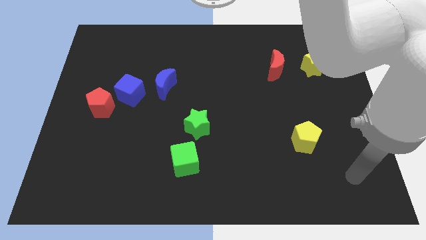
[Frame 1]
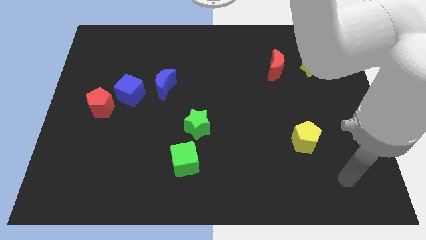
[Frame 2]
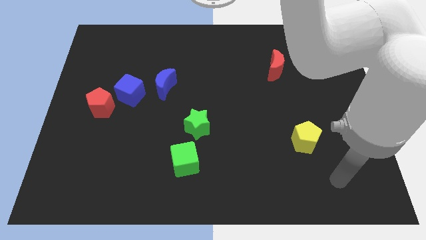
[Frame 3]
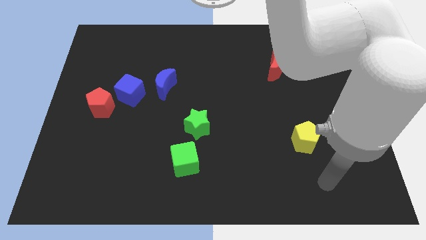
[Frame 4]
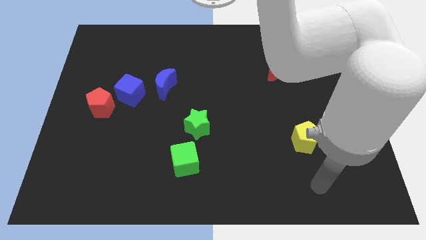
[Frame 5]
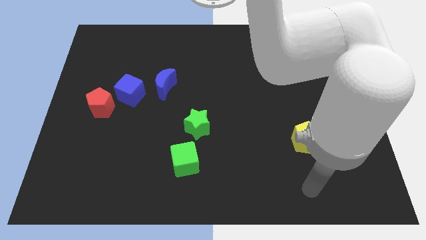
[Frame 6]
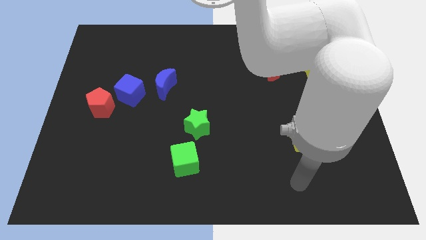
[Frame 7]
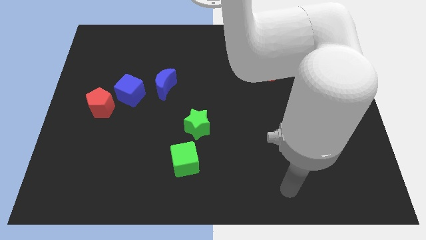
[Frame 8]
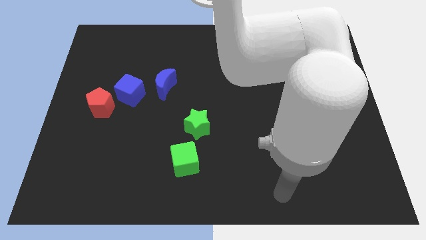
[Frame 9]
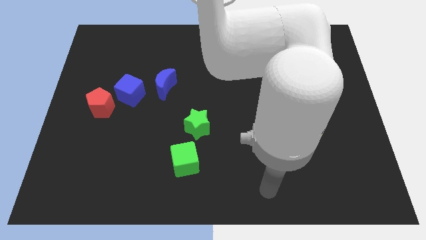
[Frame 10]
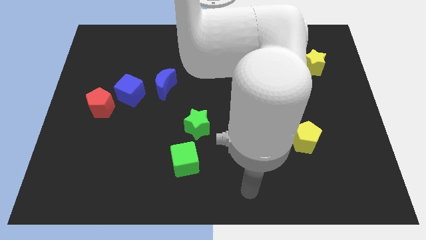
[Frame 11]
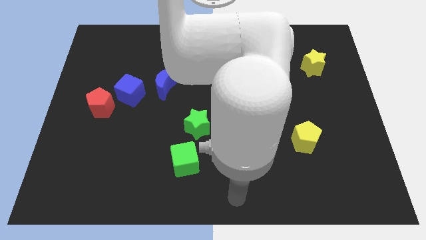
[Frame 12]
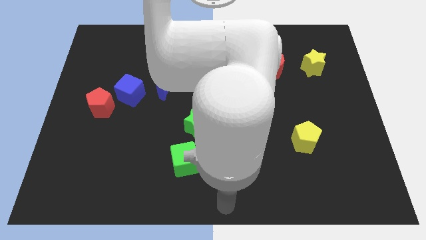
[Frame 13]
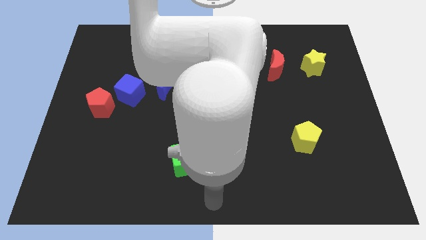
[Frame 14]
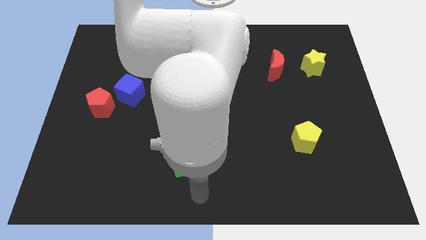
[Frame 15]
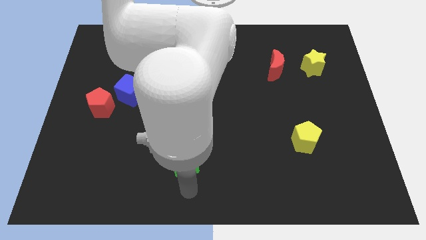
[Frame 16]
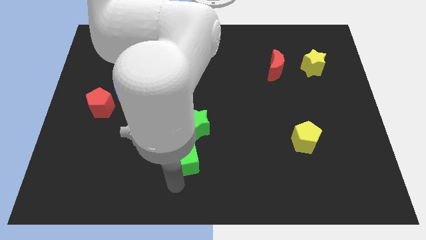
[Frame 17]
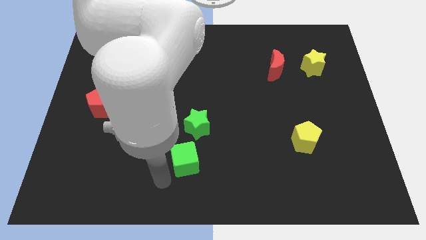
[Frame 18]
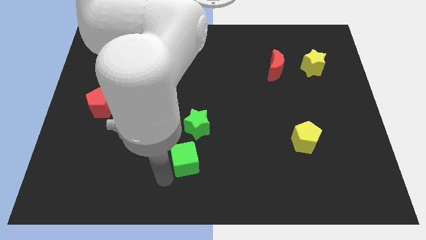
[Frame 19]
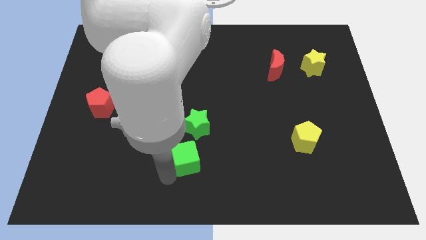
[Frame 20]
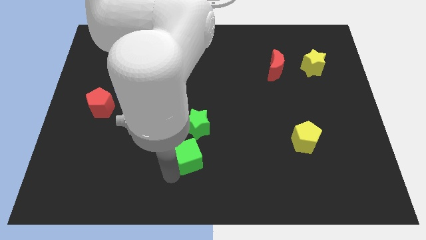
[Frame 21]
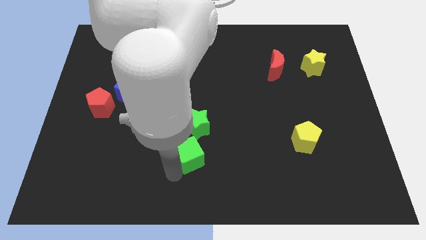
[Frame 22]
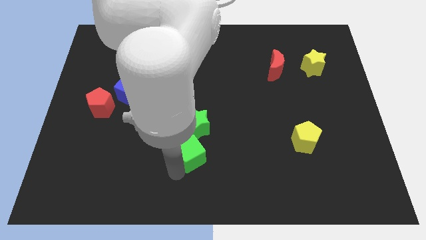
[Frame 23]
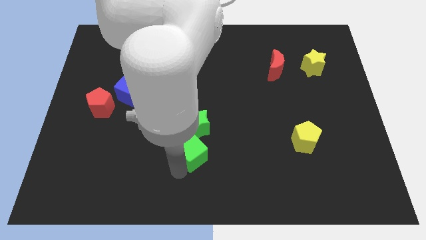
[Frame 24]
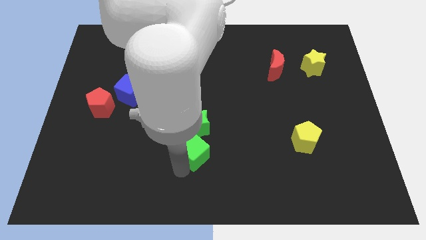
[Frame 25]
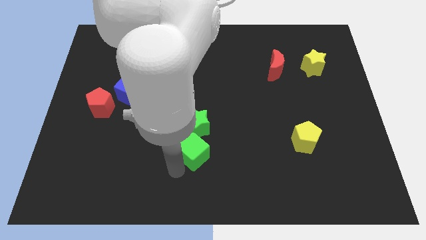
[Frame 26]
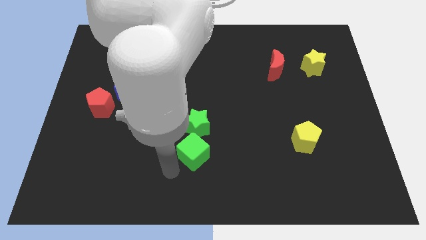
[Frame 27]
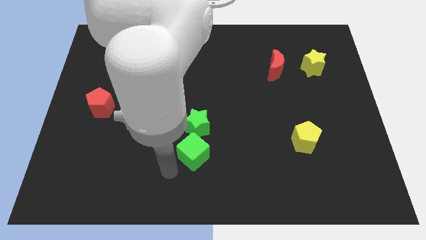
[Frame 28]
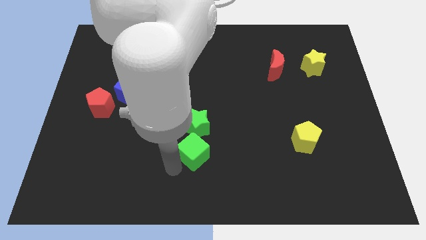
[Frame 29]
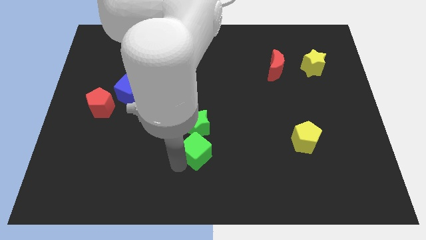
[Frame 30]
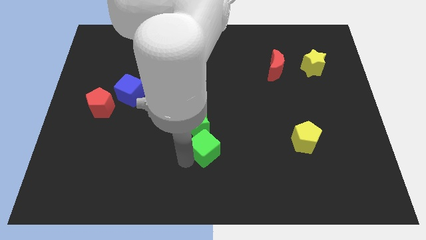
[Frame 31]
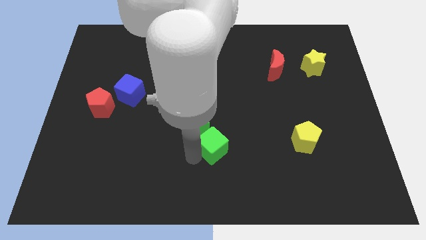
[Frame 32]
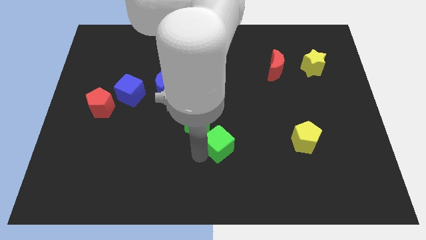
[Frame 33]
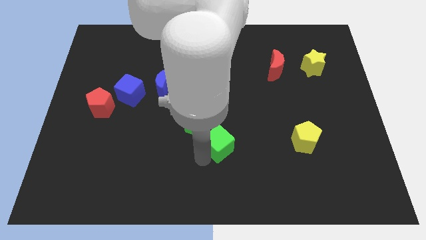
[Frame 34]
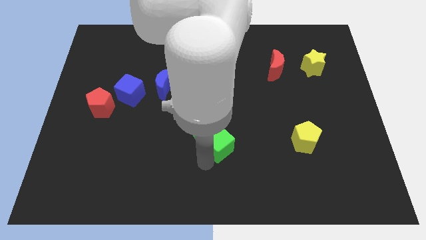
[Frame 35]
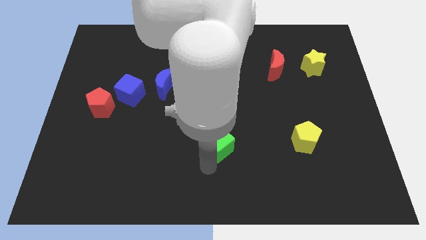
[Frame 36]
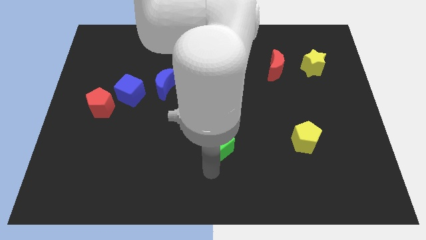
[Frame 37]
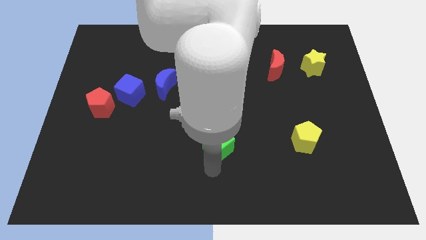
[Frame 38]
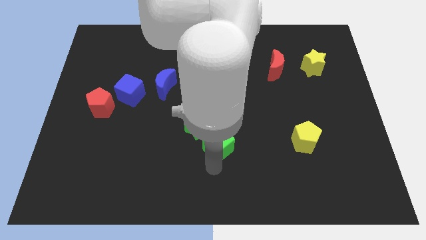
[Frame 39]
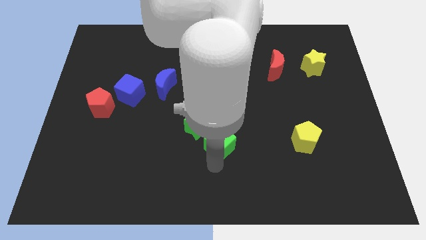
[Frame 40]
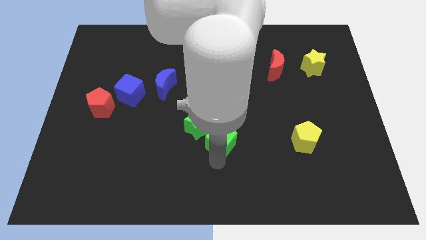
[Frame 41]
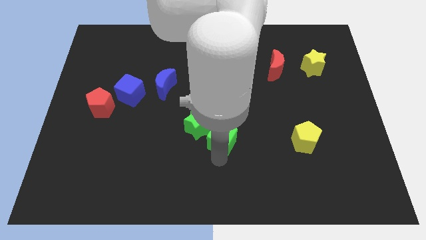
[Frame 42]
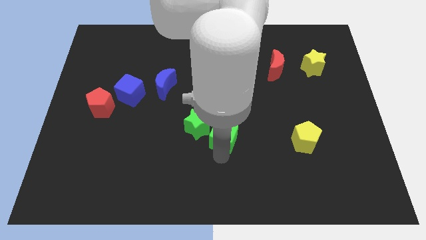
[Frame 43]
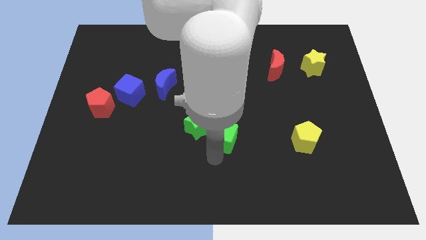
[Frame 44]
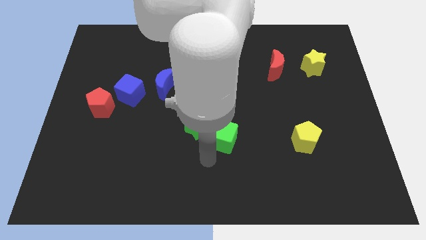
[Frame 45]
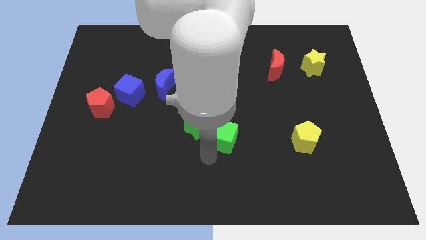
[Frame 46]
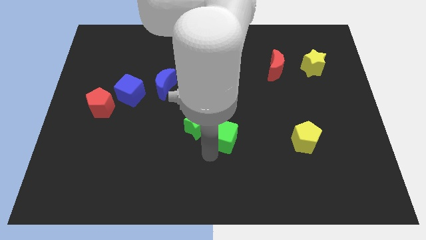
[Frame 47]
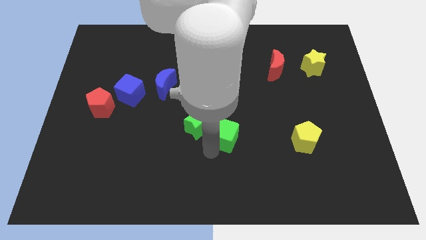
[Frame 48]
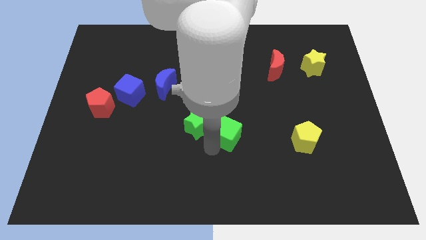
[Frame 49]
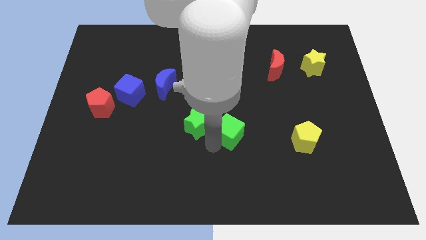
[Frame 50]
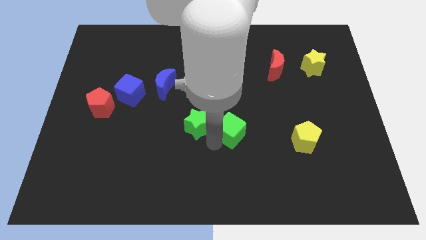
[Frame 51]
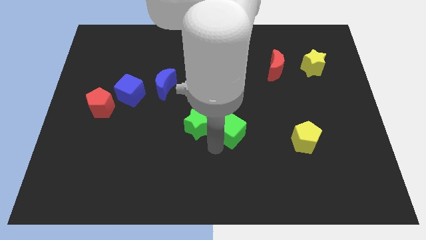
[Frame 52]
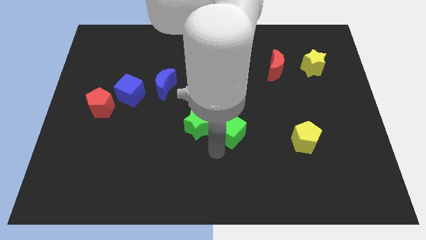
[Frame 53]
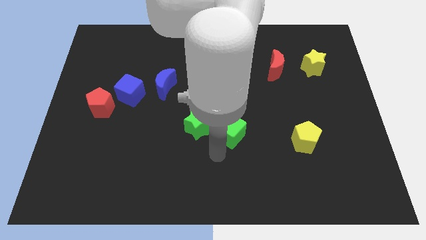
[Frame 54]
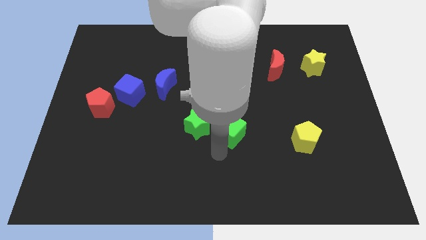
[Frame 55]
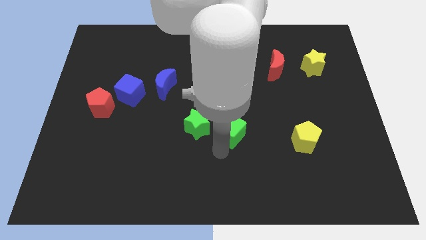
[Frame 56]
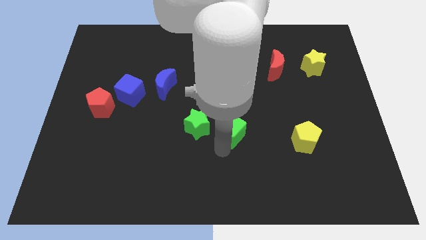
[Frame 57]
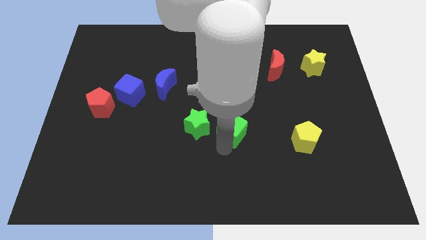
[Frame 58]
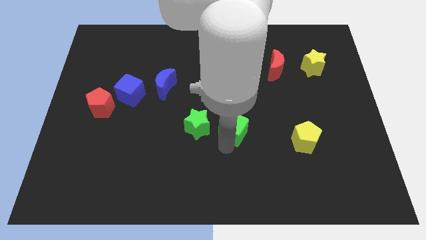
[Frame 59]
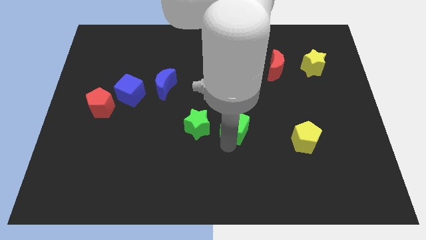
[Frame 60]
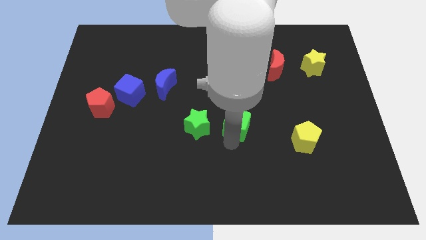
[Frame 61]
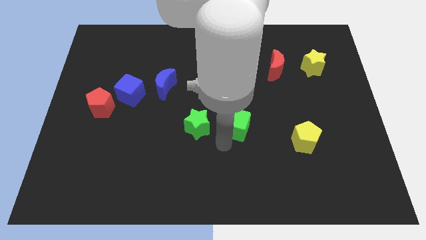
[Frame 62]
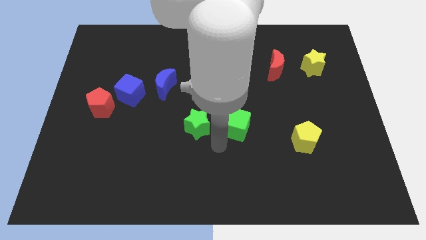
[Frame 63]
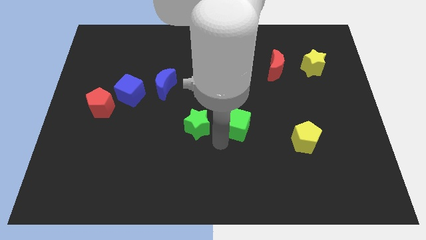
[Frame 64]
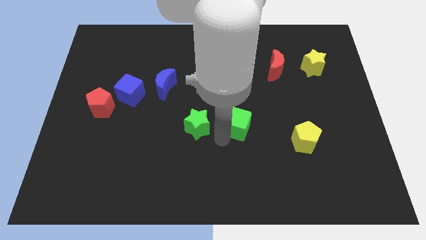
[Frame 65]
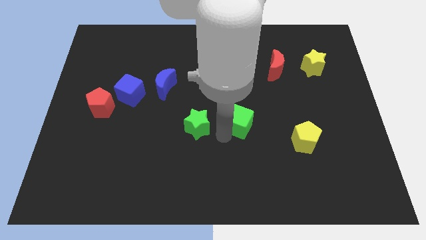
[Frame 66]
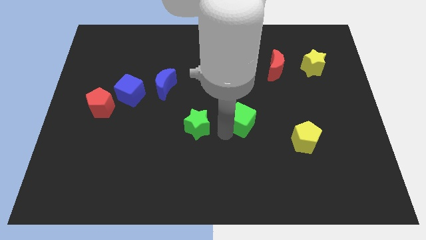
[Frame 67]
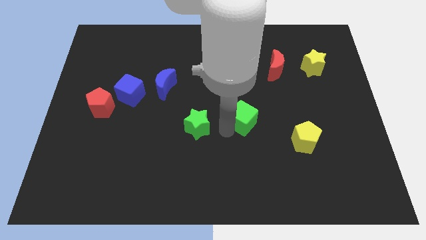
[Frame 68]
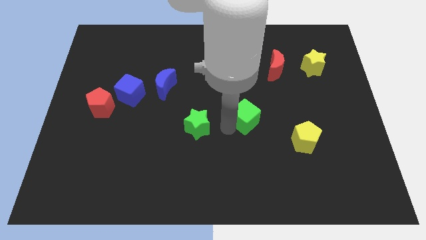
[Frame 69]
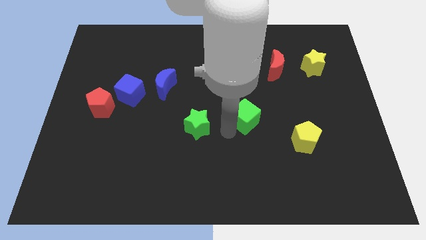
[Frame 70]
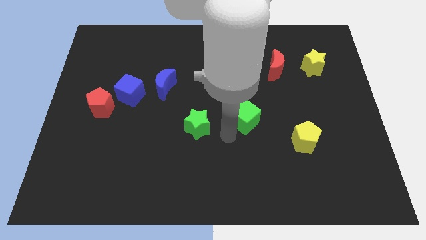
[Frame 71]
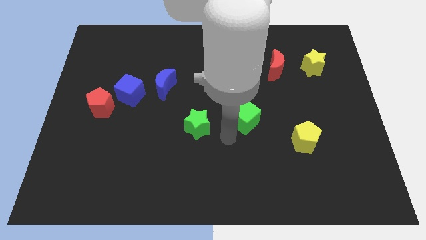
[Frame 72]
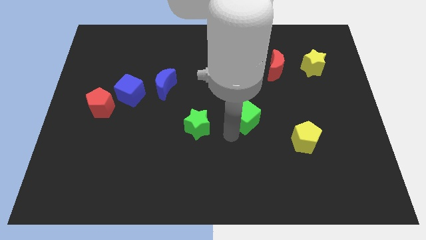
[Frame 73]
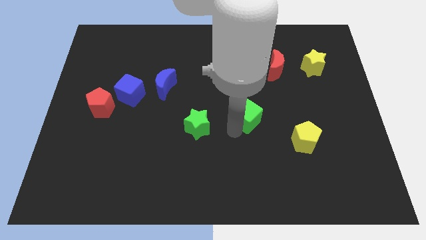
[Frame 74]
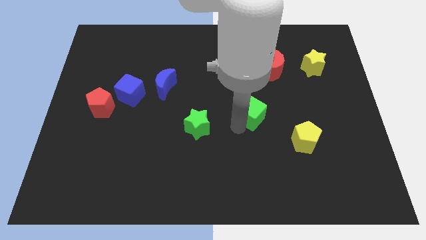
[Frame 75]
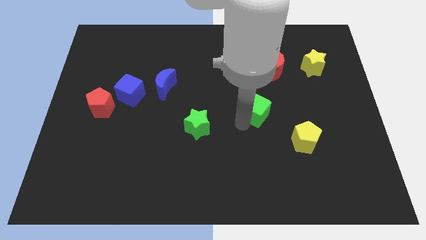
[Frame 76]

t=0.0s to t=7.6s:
move the green cube up and then to the right

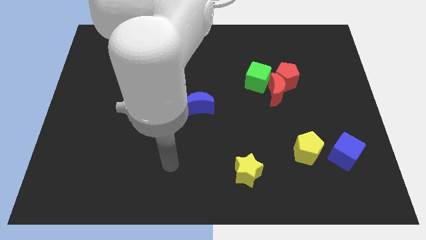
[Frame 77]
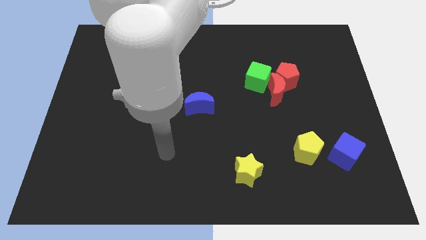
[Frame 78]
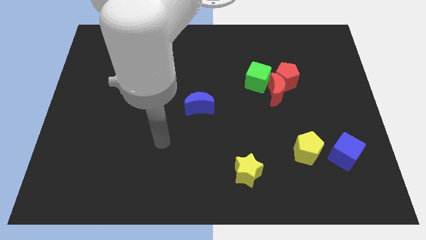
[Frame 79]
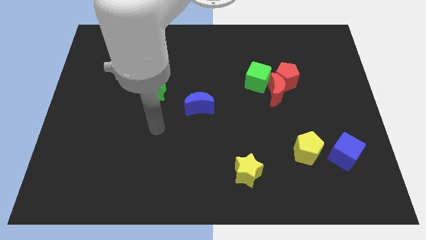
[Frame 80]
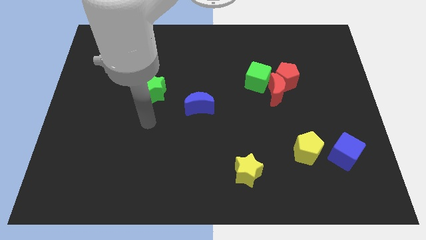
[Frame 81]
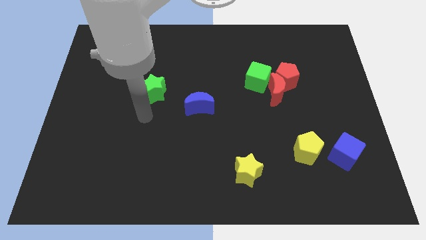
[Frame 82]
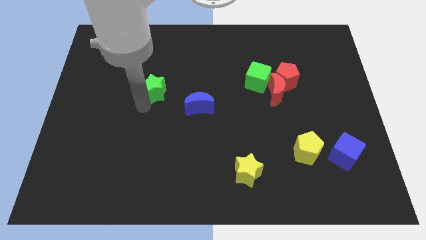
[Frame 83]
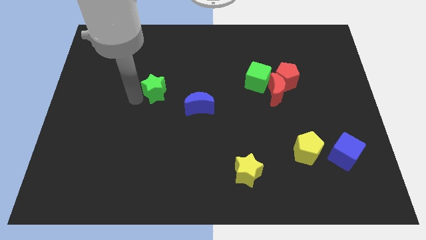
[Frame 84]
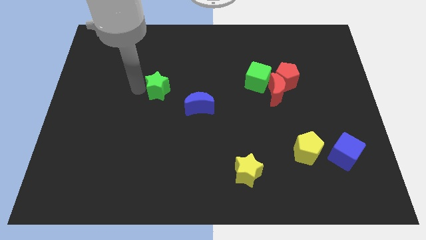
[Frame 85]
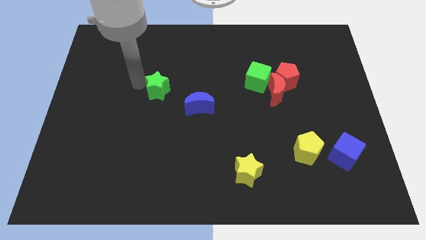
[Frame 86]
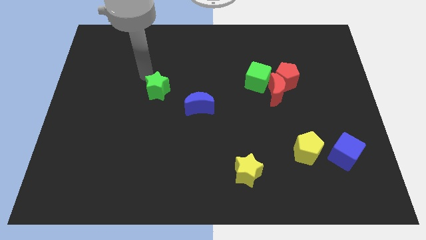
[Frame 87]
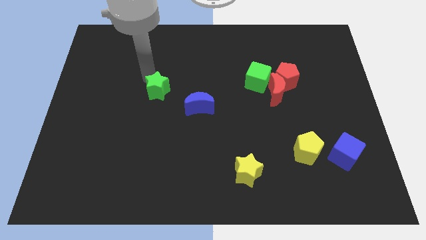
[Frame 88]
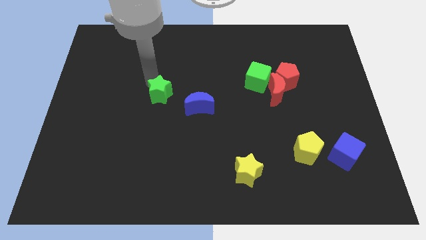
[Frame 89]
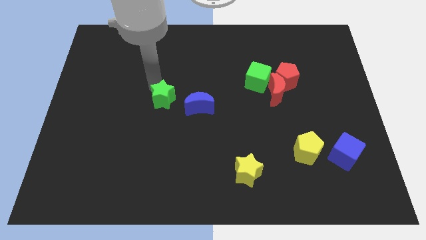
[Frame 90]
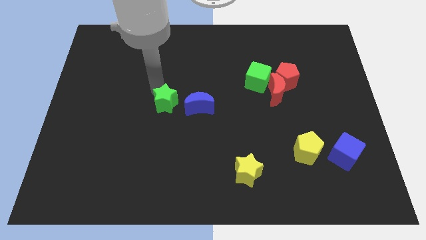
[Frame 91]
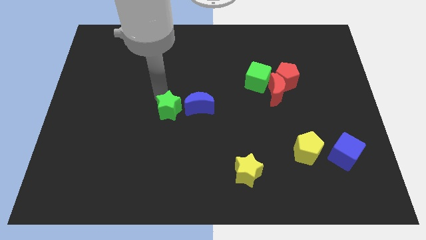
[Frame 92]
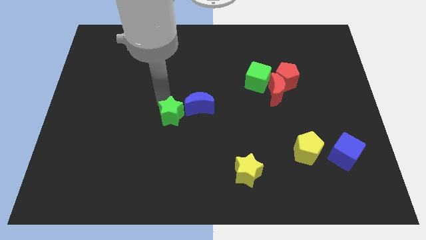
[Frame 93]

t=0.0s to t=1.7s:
slightly slide the green star diagonally down and to the right
